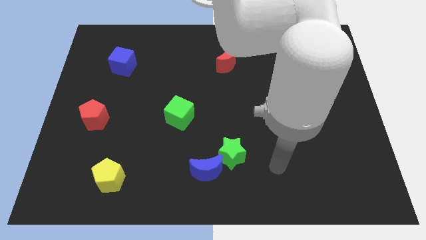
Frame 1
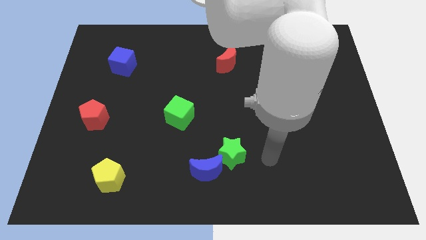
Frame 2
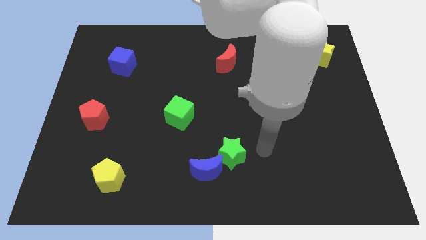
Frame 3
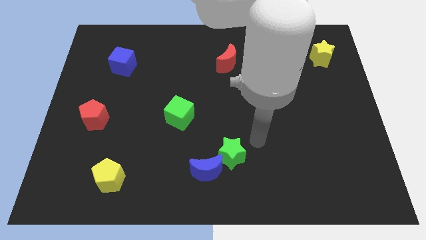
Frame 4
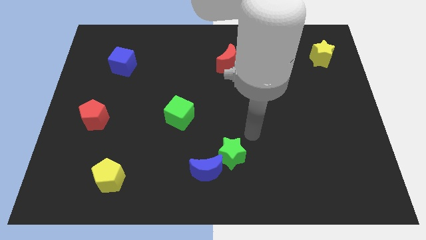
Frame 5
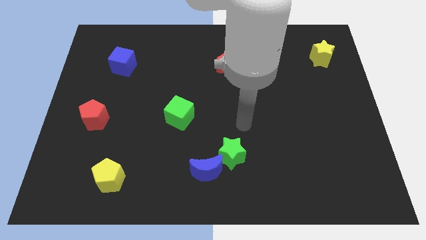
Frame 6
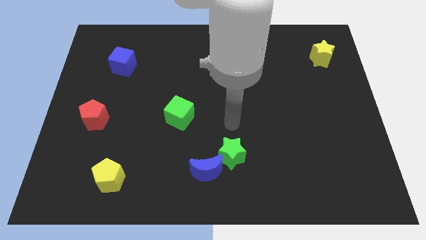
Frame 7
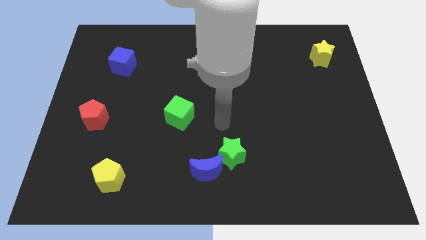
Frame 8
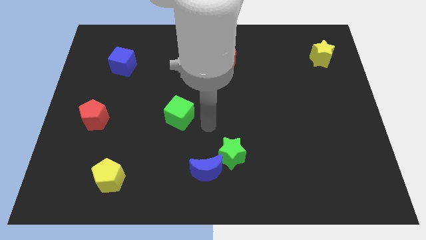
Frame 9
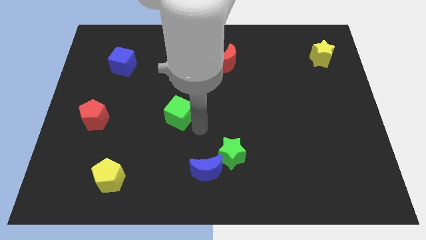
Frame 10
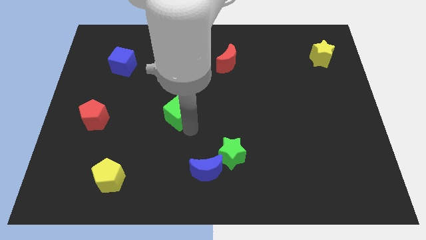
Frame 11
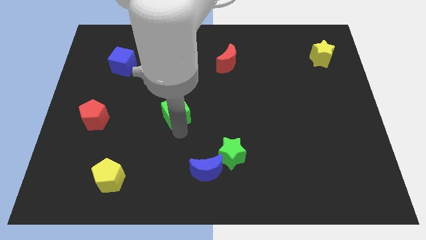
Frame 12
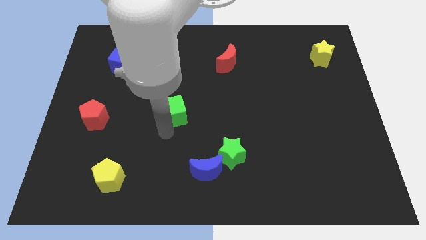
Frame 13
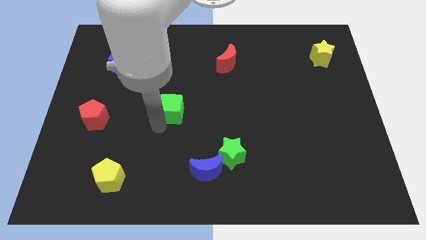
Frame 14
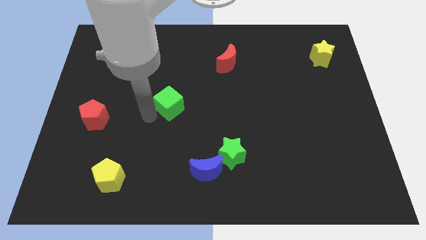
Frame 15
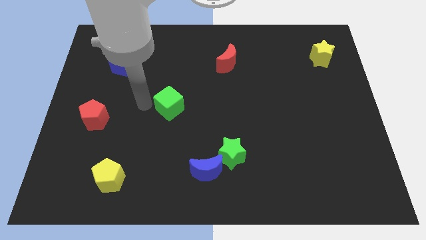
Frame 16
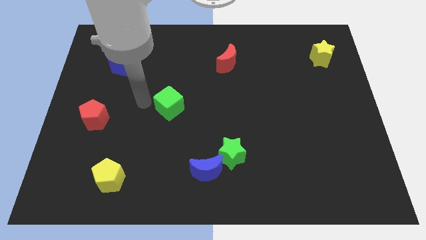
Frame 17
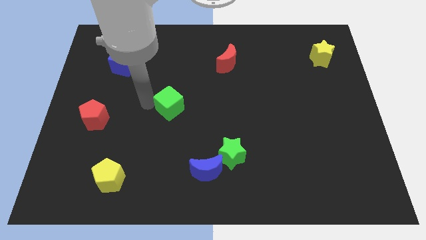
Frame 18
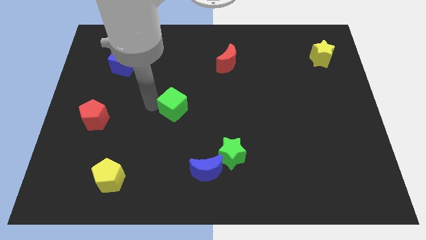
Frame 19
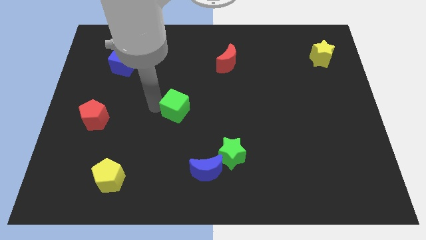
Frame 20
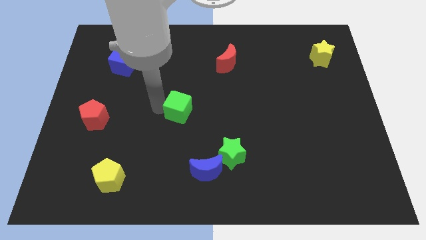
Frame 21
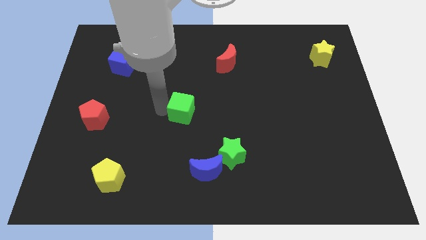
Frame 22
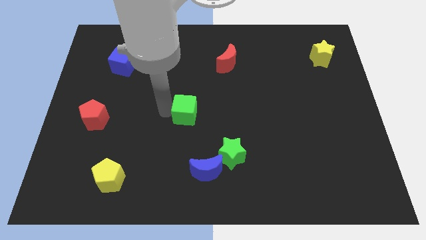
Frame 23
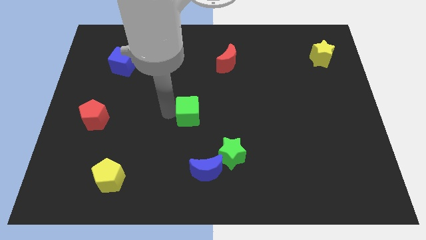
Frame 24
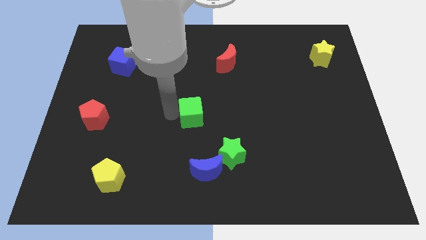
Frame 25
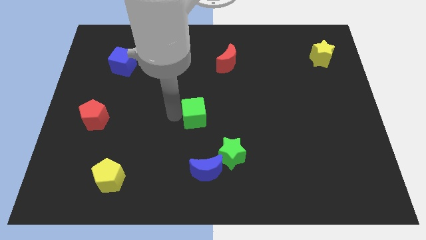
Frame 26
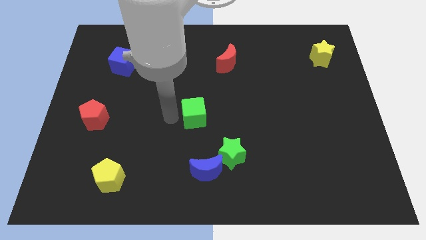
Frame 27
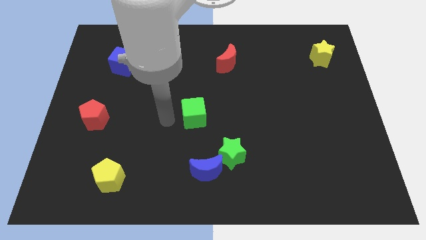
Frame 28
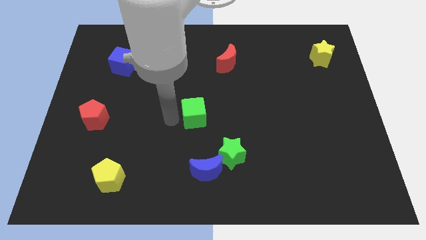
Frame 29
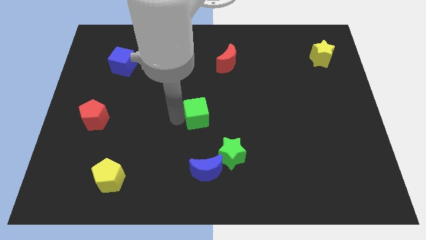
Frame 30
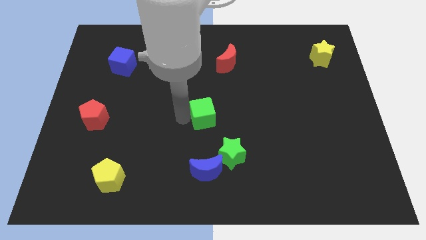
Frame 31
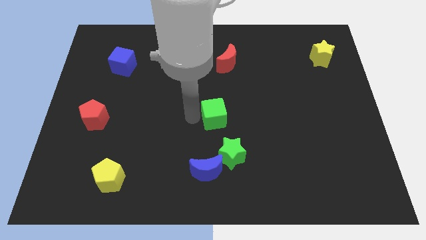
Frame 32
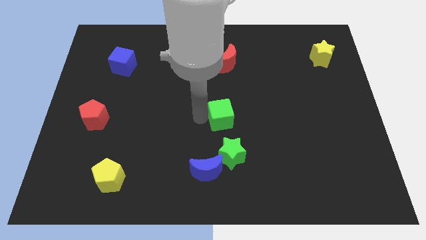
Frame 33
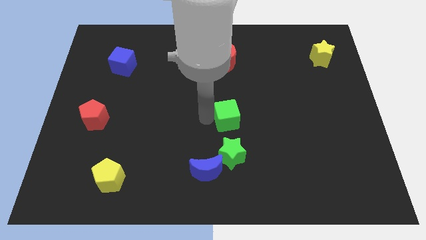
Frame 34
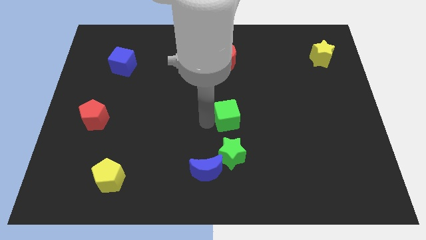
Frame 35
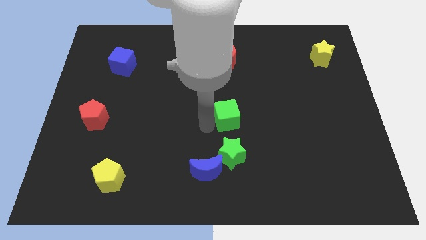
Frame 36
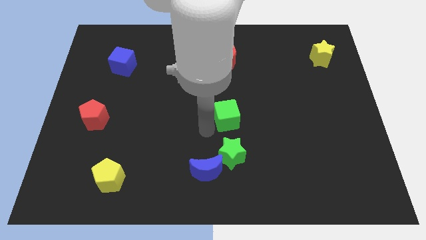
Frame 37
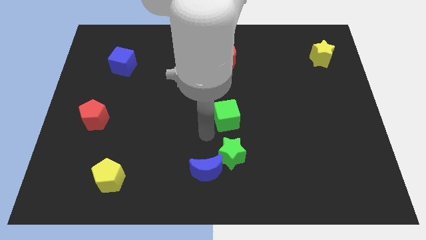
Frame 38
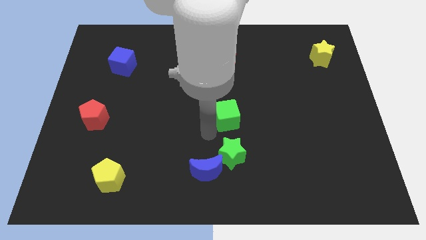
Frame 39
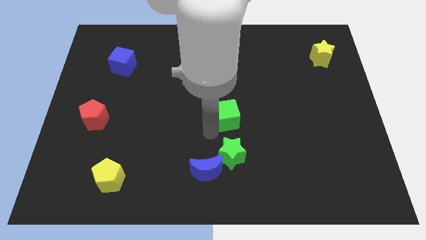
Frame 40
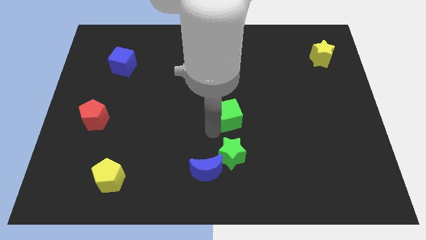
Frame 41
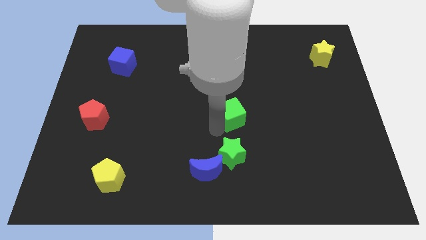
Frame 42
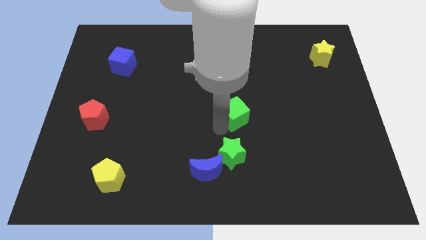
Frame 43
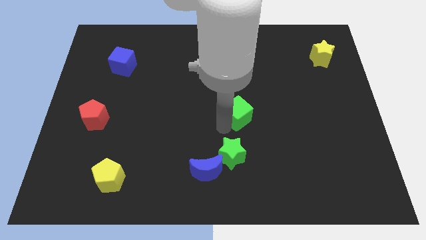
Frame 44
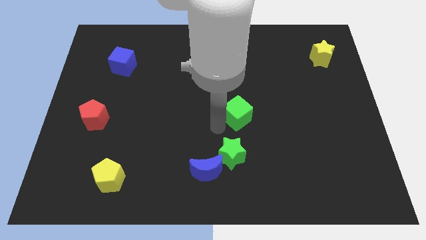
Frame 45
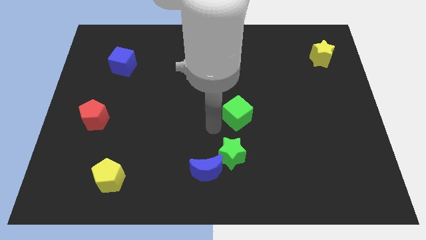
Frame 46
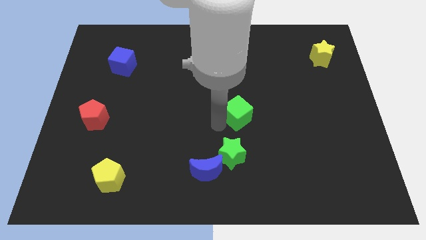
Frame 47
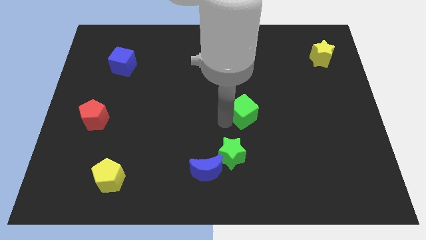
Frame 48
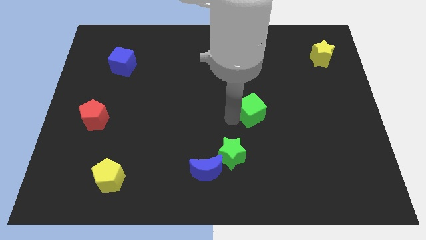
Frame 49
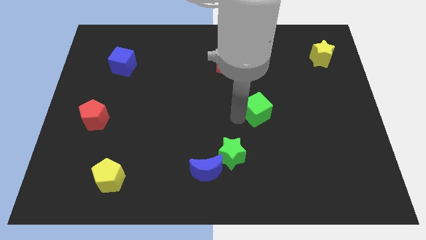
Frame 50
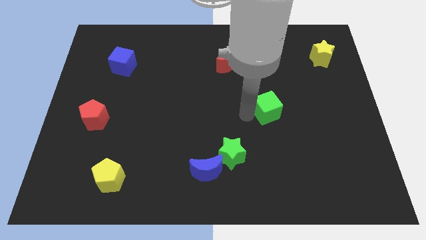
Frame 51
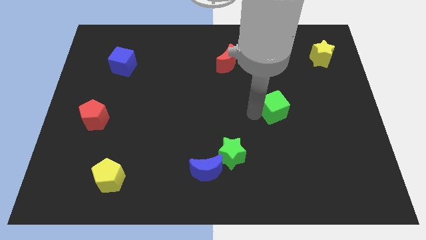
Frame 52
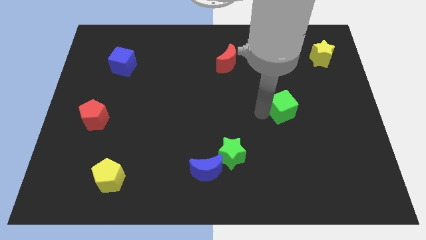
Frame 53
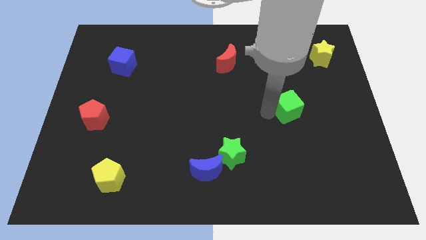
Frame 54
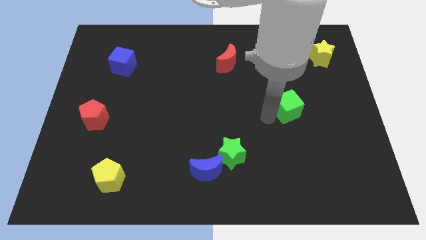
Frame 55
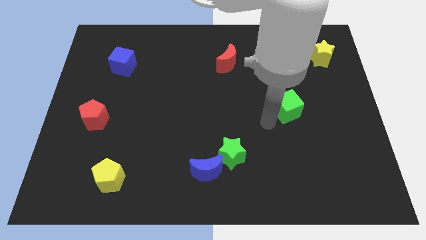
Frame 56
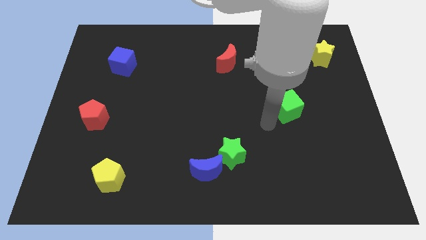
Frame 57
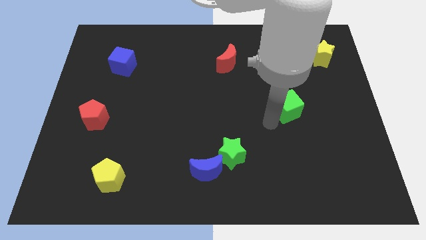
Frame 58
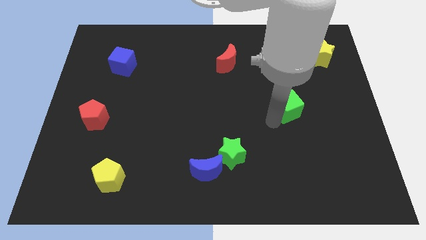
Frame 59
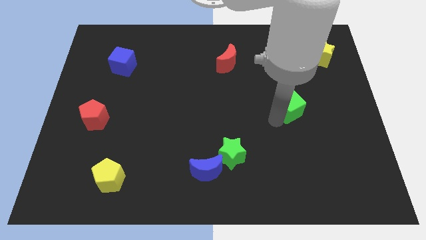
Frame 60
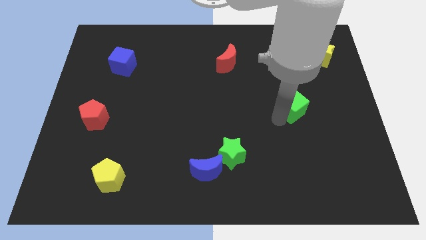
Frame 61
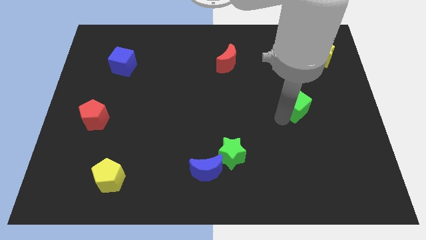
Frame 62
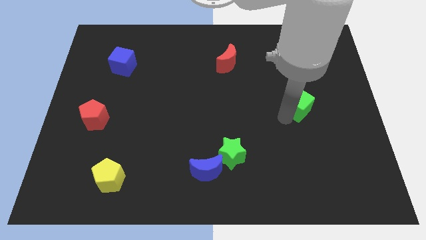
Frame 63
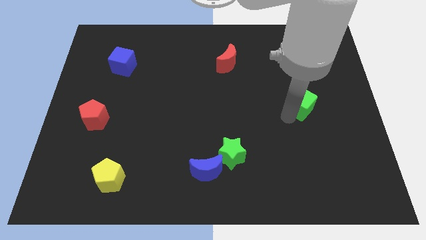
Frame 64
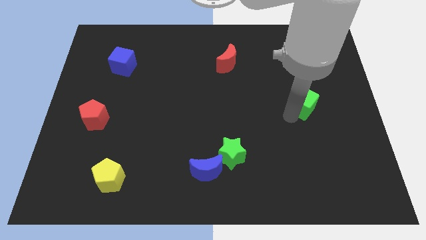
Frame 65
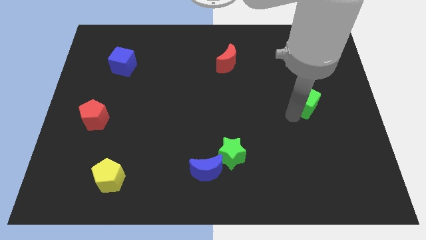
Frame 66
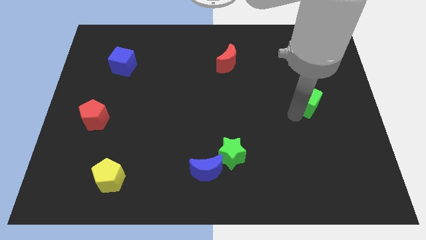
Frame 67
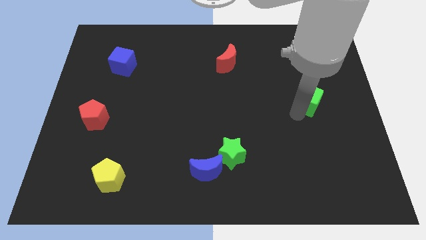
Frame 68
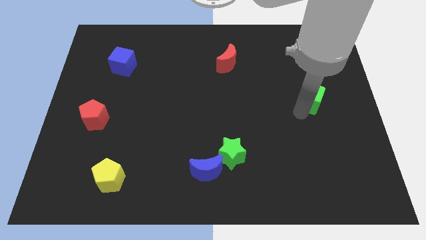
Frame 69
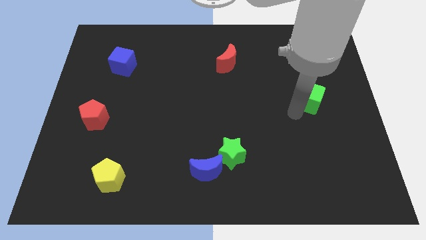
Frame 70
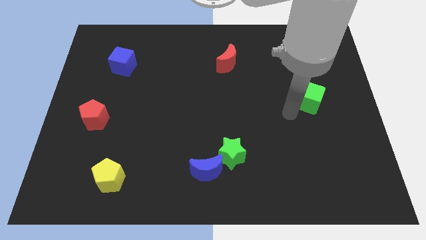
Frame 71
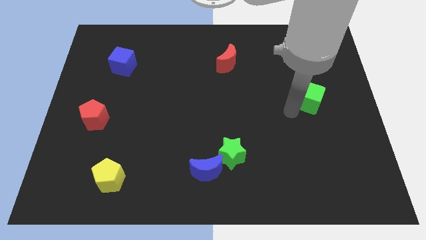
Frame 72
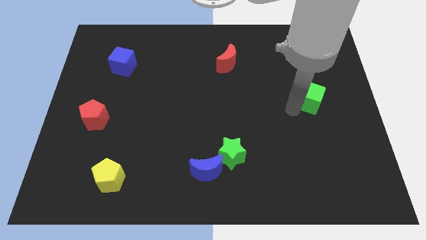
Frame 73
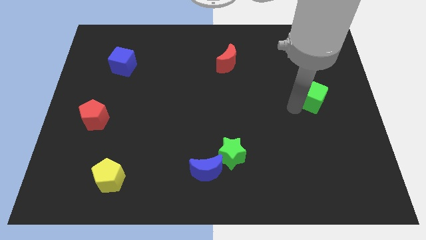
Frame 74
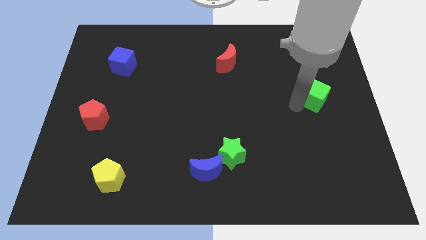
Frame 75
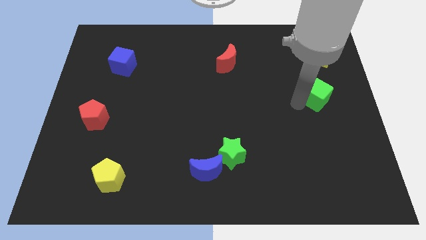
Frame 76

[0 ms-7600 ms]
put the green cube below the yellow star
